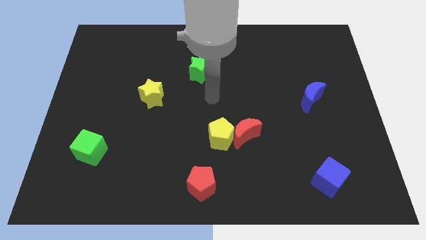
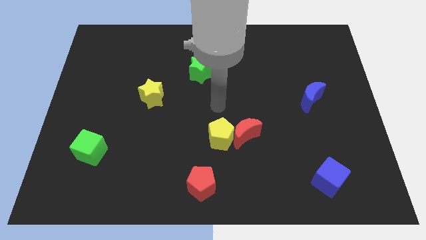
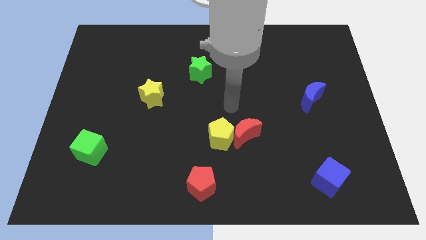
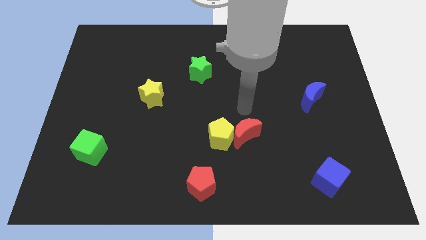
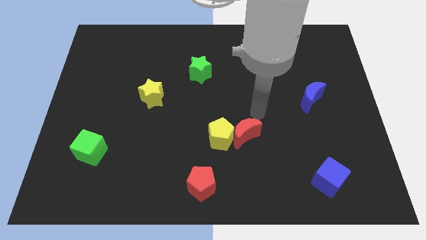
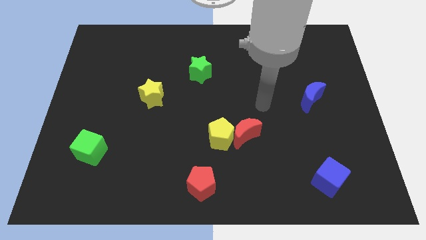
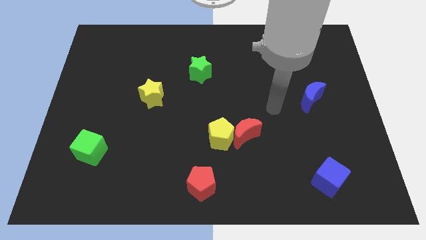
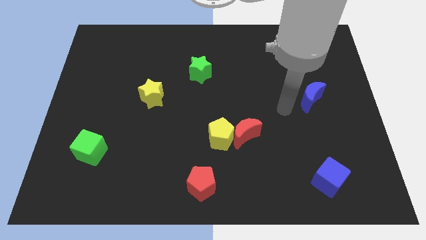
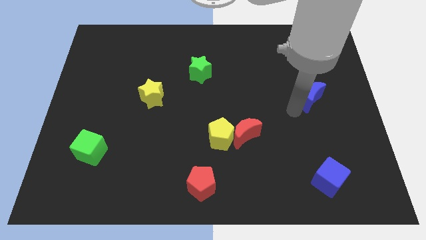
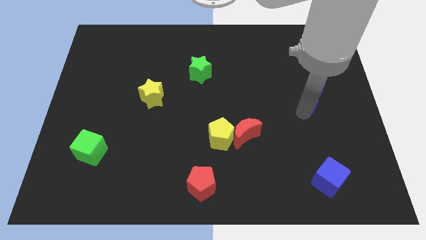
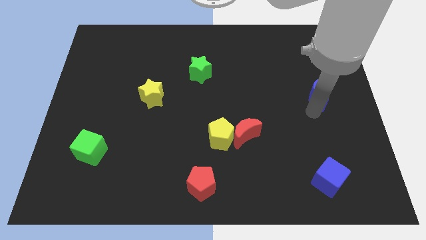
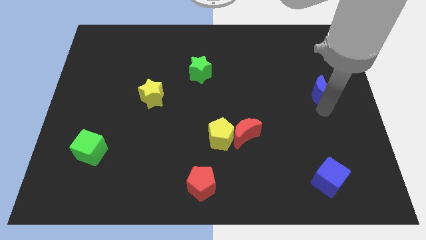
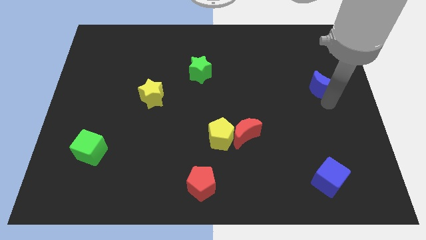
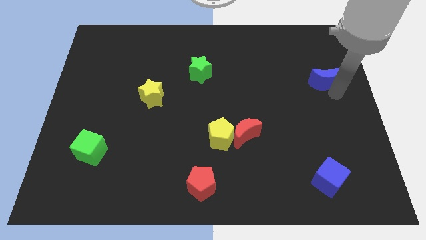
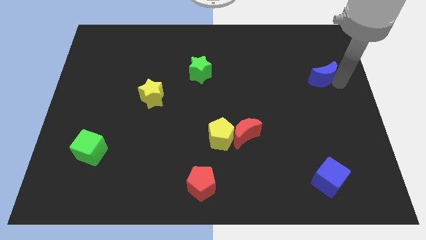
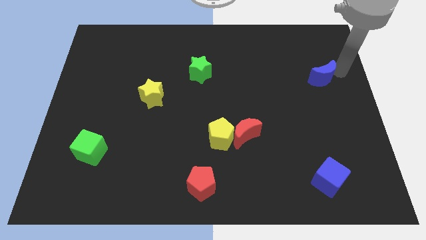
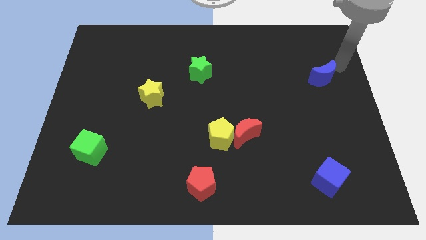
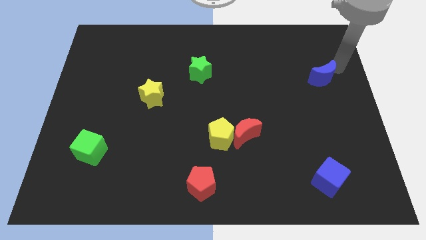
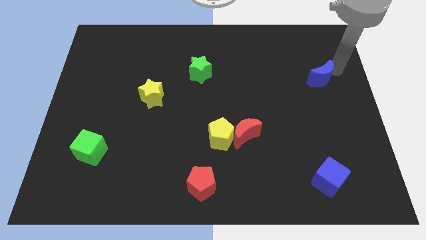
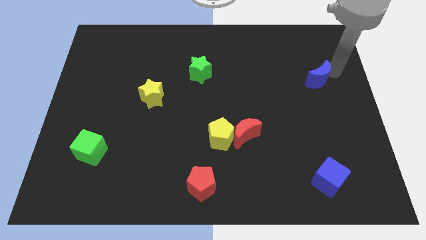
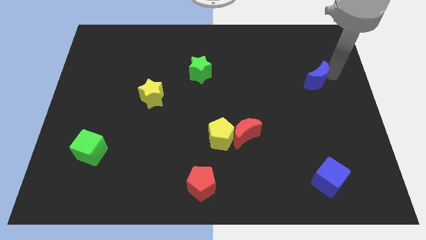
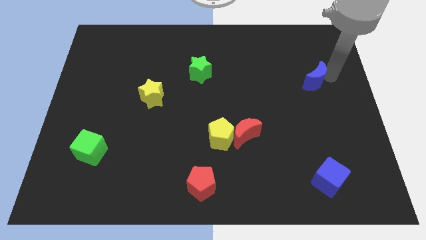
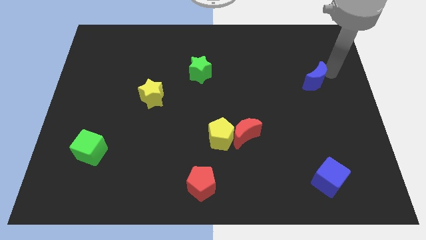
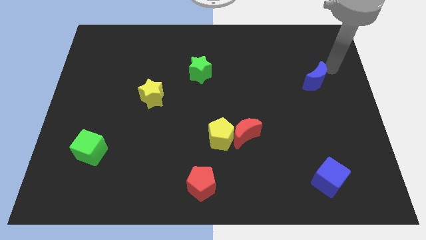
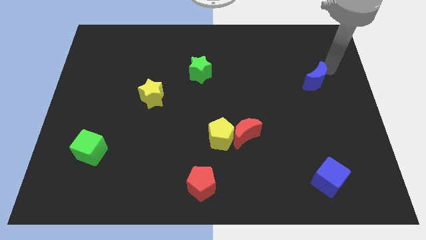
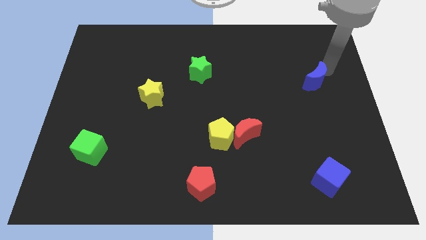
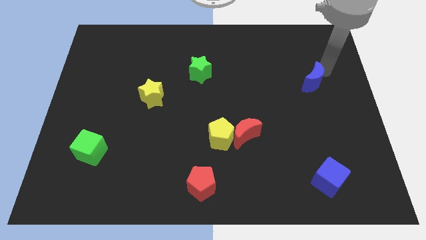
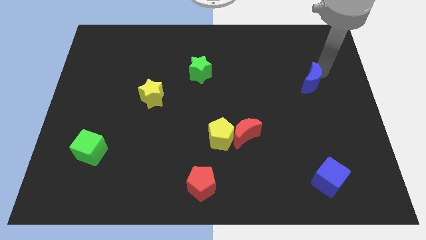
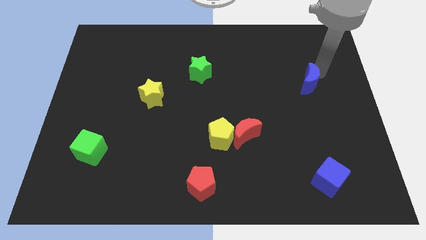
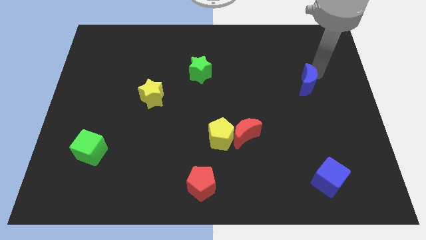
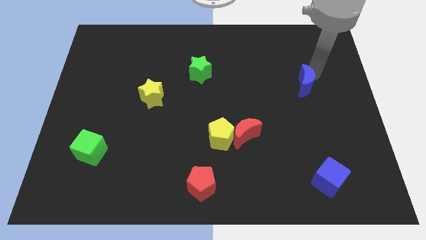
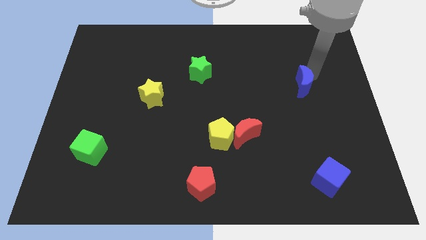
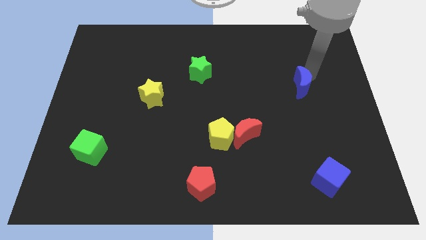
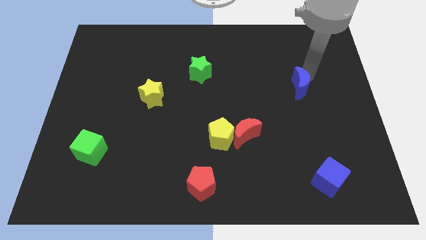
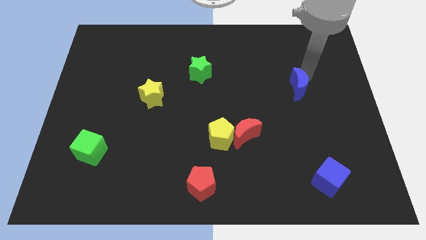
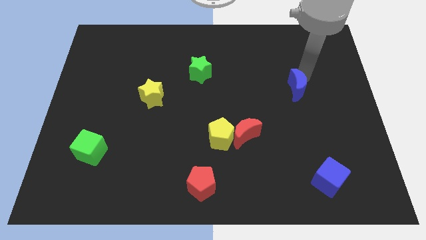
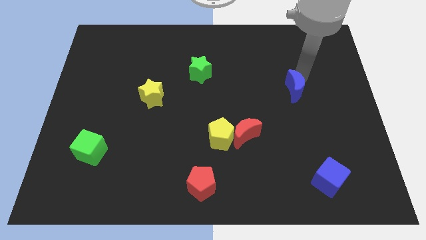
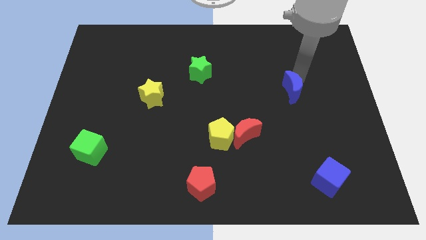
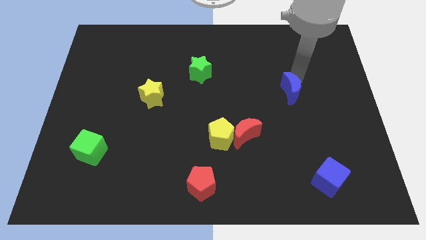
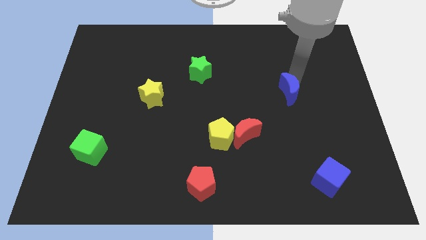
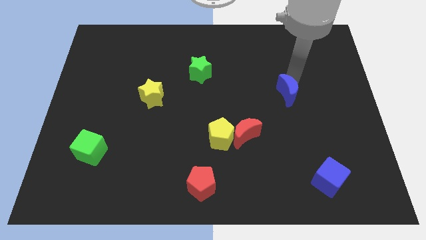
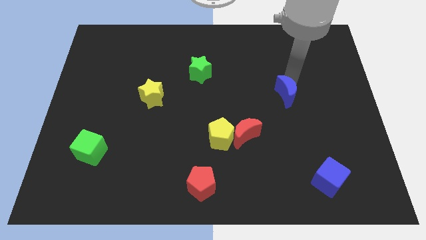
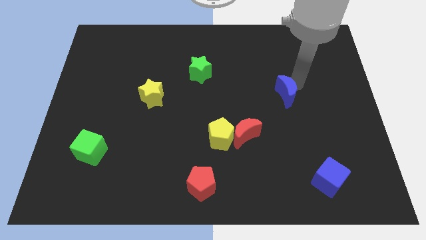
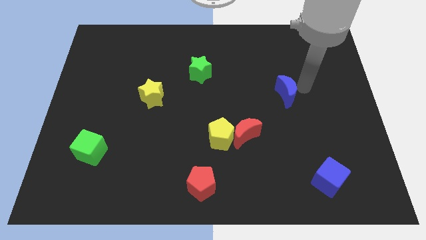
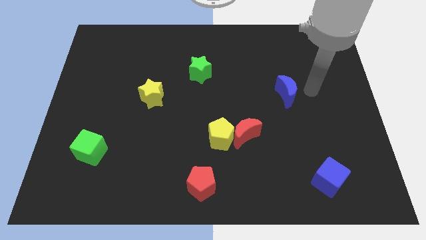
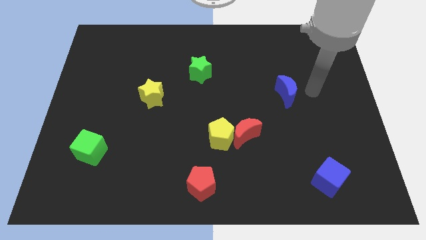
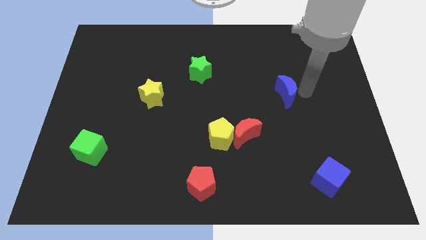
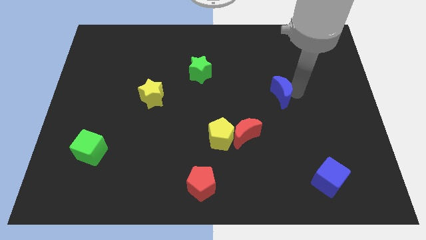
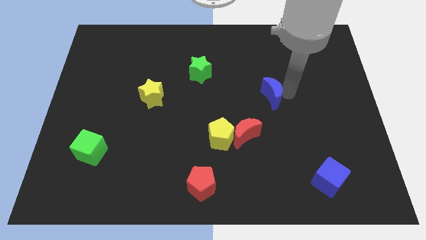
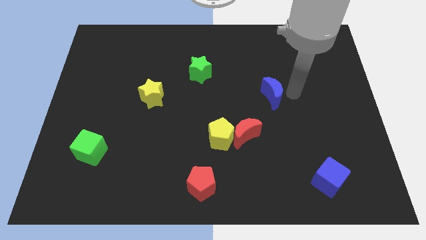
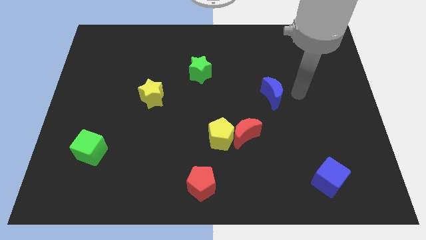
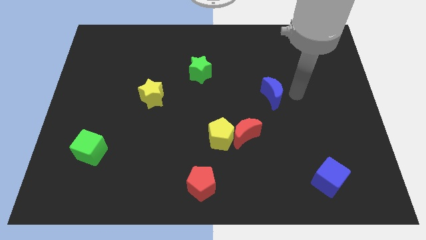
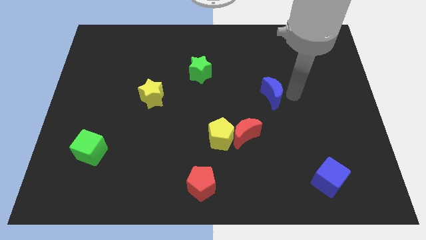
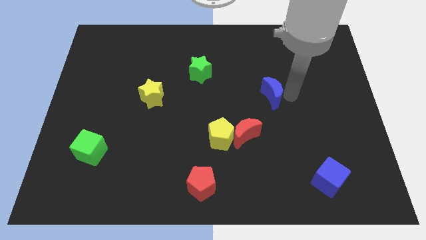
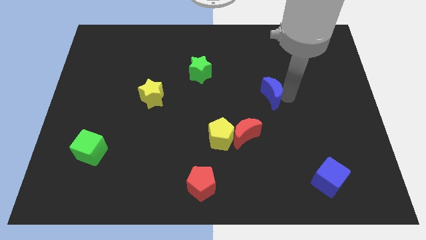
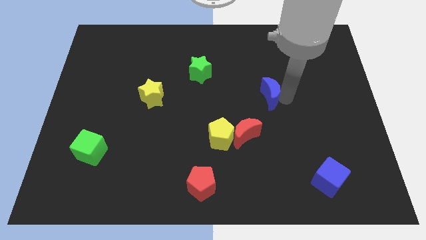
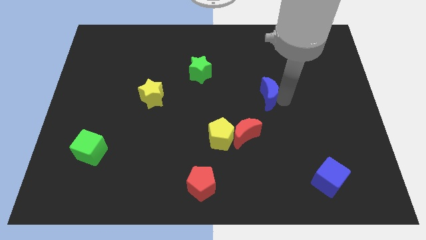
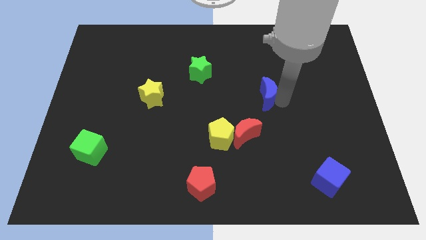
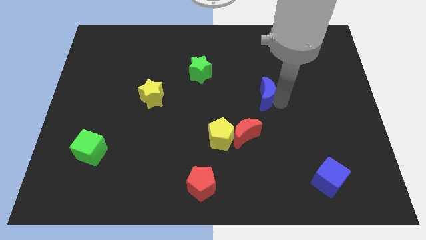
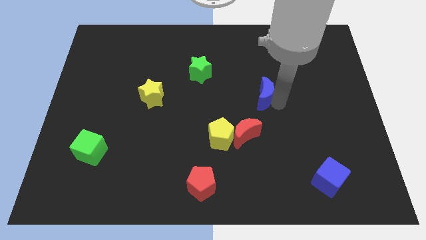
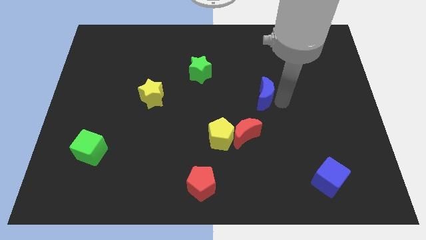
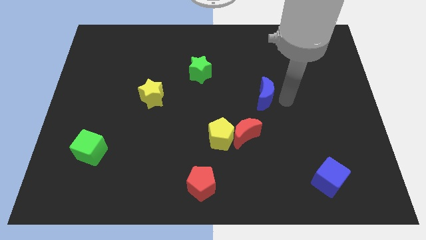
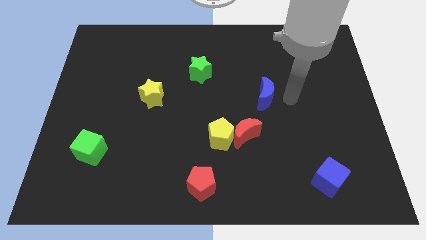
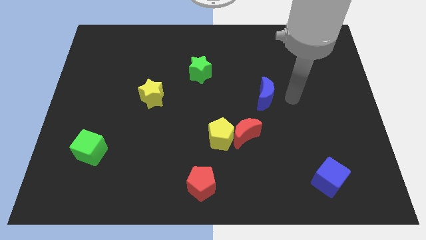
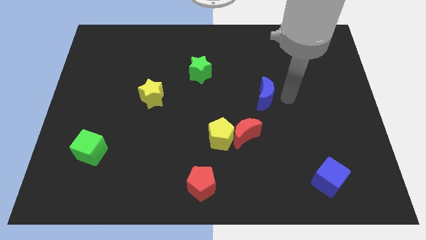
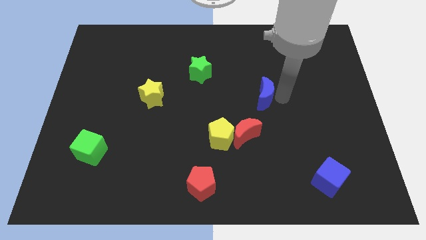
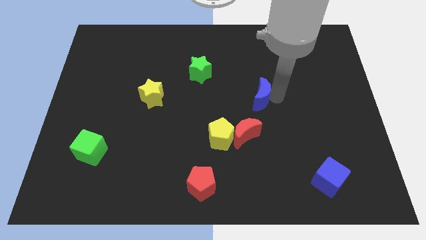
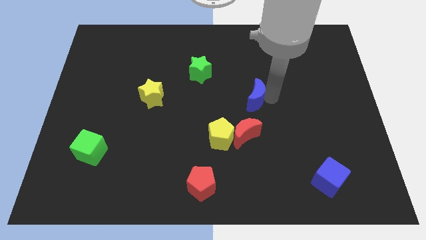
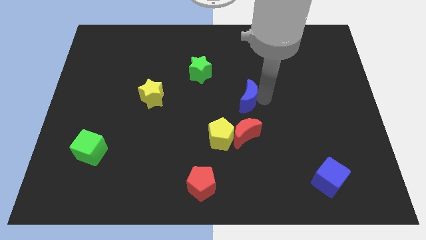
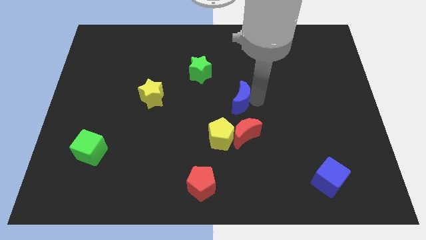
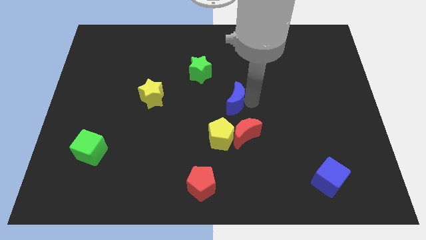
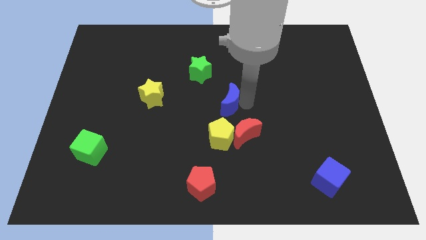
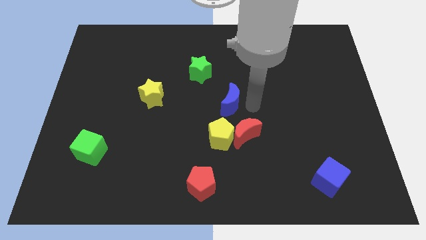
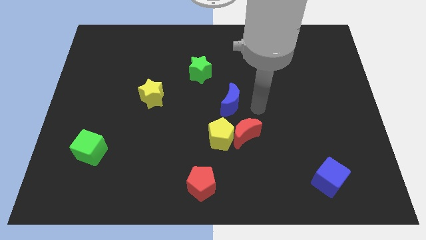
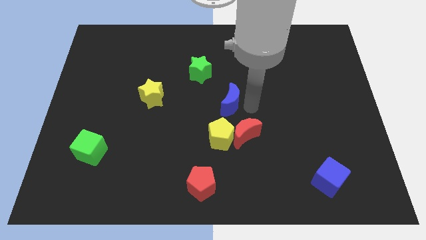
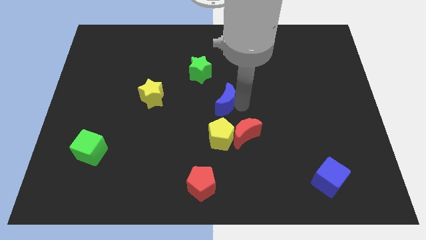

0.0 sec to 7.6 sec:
push the blue moon left

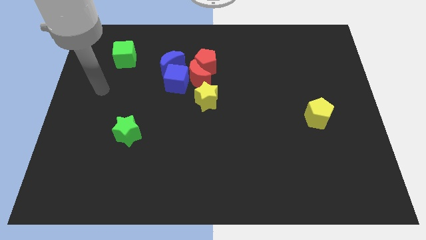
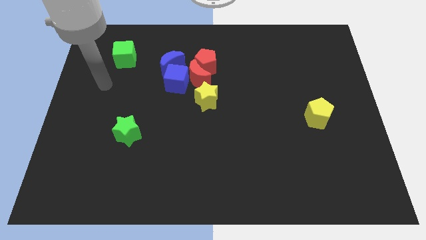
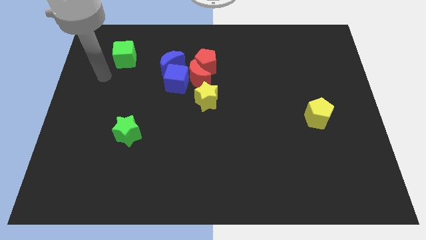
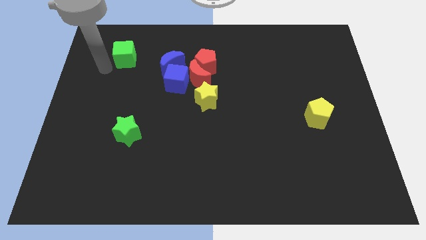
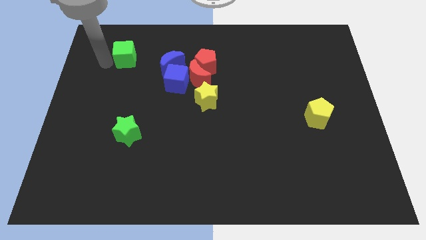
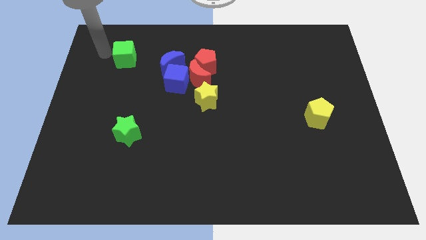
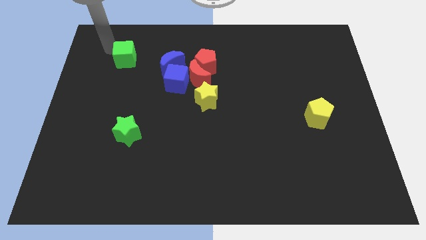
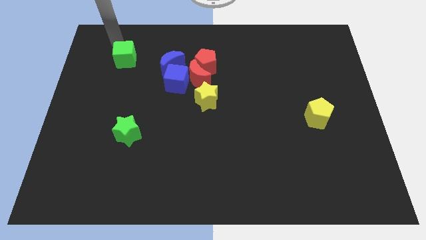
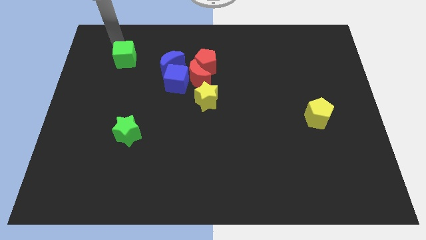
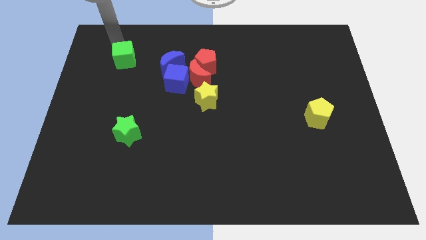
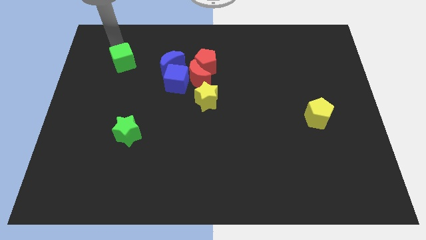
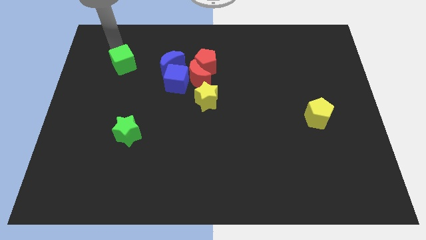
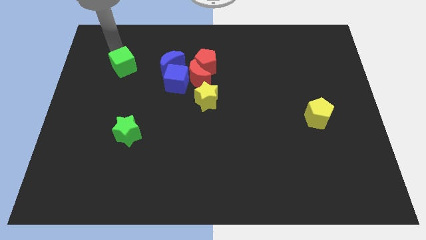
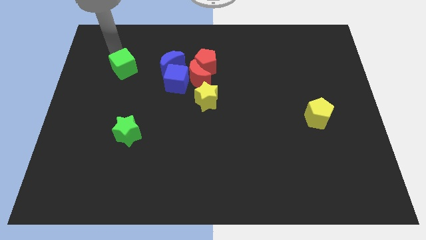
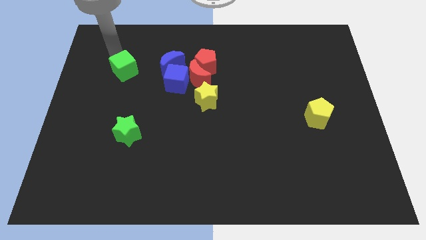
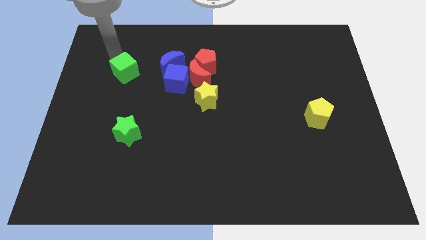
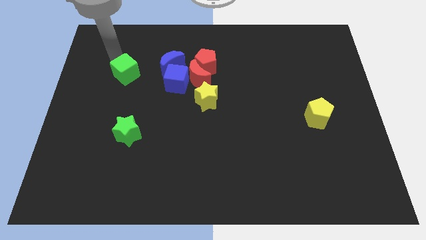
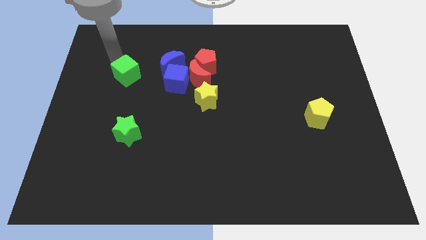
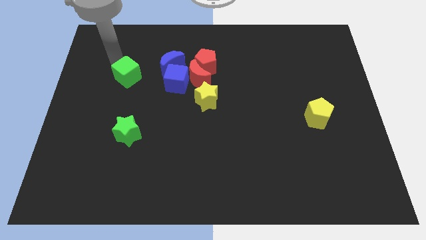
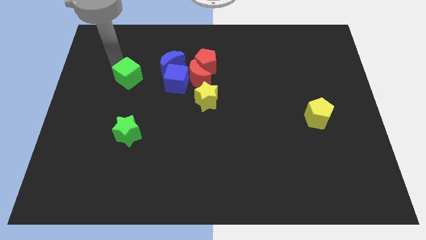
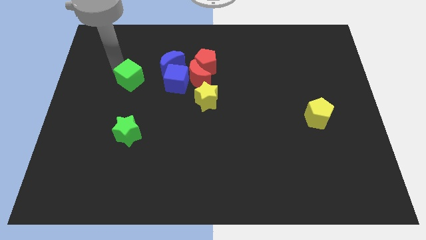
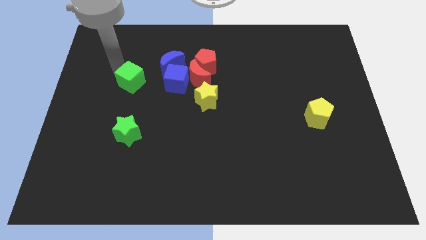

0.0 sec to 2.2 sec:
slightly slide the green cube down and right
